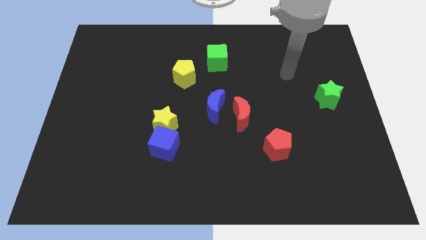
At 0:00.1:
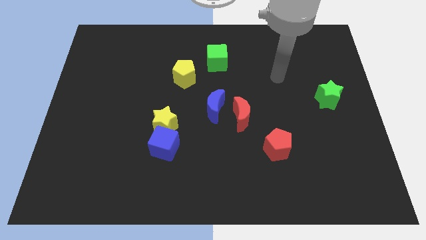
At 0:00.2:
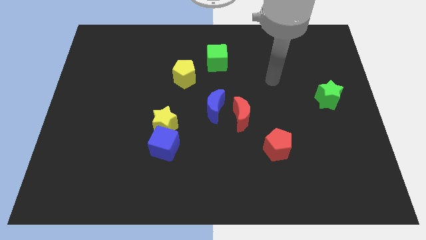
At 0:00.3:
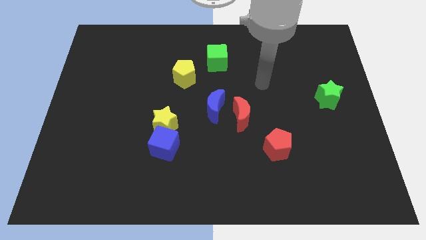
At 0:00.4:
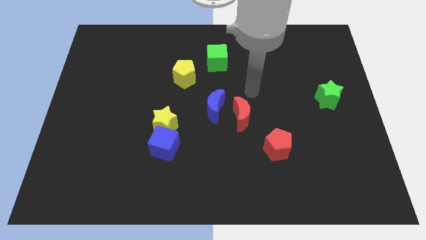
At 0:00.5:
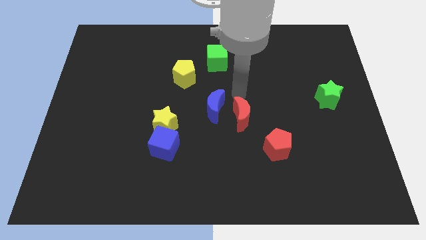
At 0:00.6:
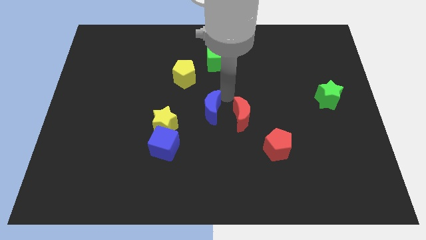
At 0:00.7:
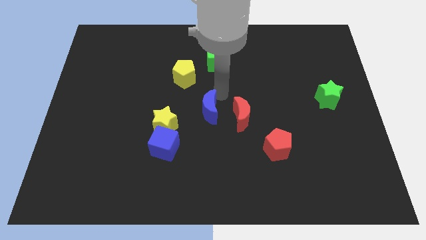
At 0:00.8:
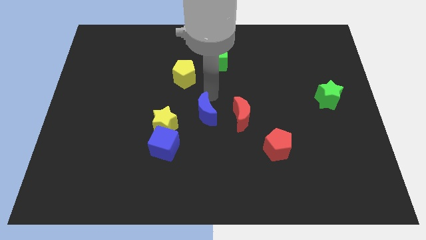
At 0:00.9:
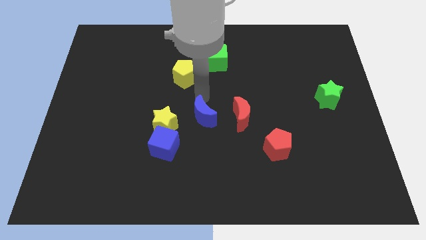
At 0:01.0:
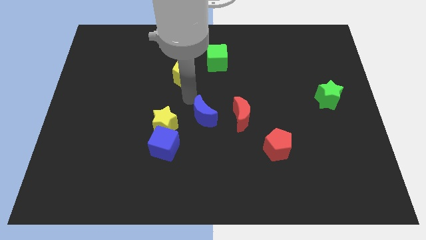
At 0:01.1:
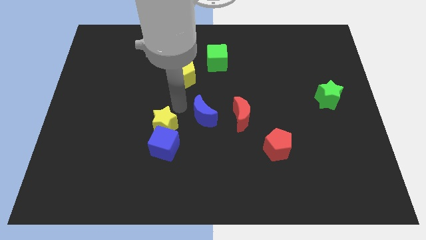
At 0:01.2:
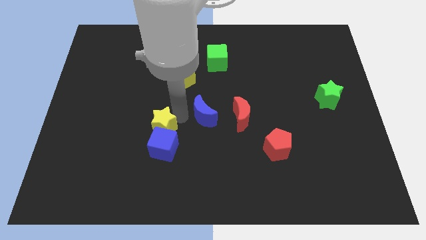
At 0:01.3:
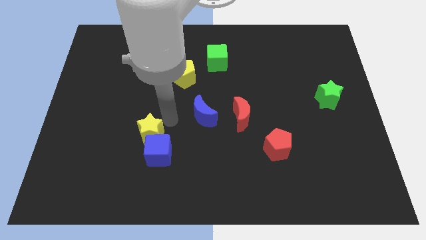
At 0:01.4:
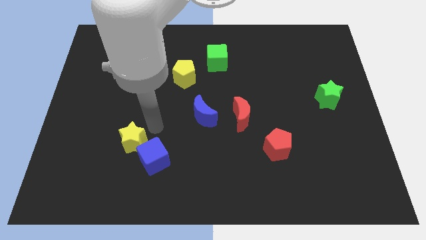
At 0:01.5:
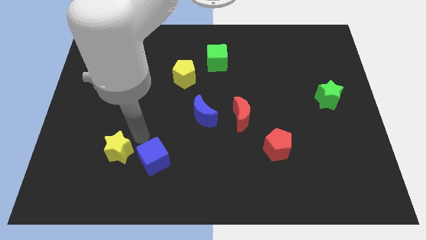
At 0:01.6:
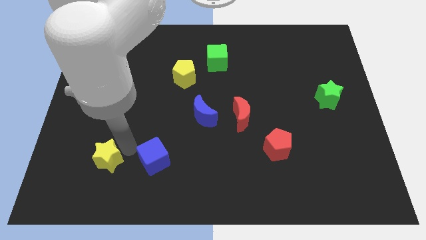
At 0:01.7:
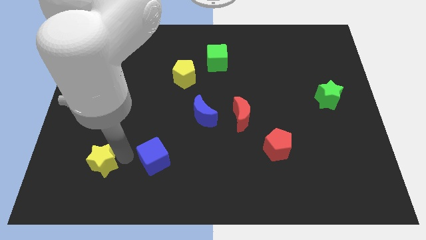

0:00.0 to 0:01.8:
move the blue cube away from the yellow star

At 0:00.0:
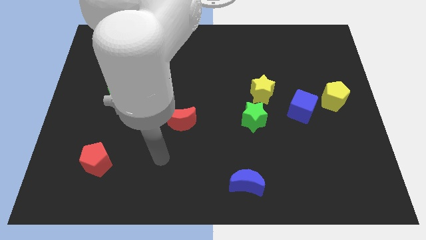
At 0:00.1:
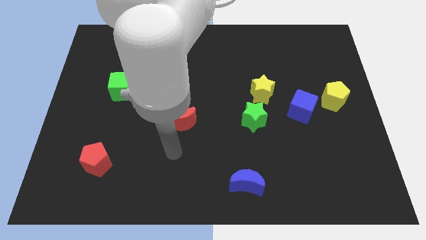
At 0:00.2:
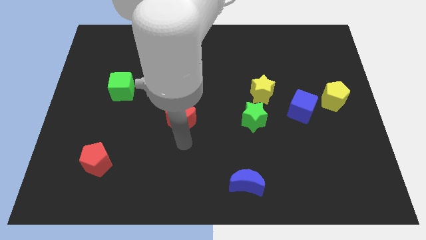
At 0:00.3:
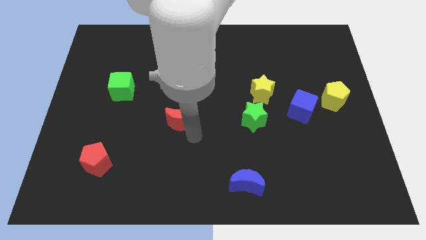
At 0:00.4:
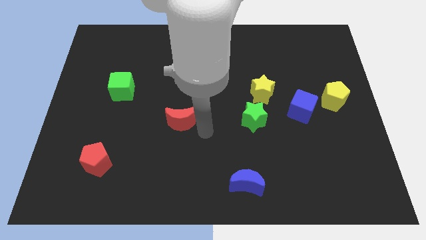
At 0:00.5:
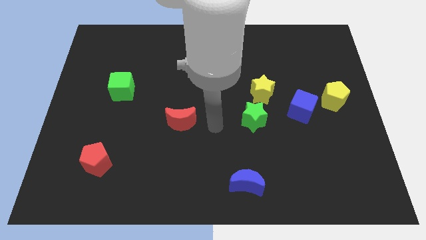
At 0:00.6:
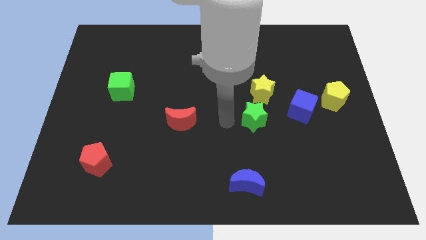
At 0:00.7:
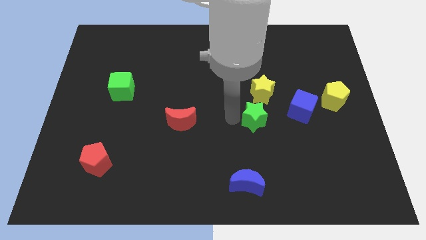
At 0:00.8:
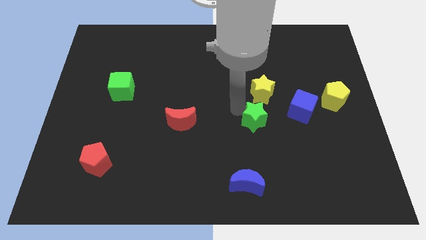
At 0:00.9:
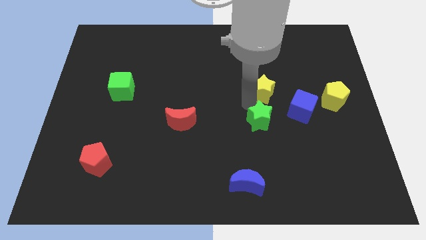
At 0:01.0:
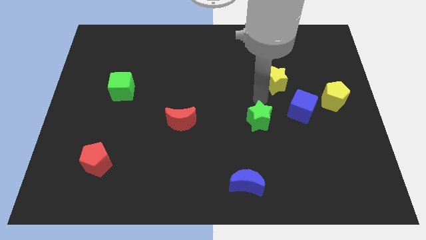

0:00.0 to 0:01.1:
pull the green star apart from the yellow star

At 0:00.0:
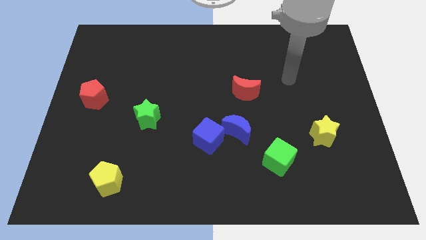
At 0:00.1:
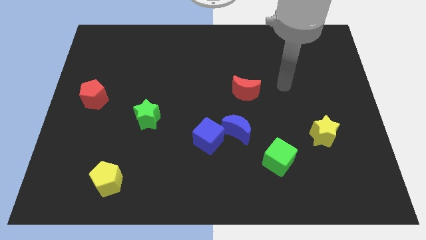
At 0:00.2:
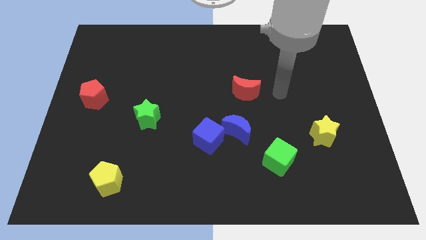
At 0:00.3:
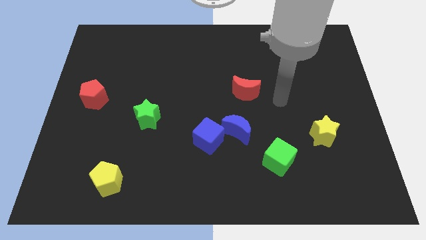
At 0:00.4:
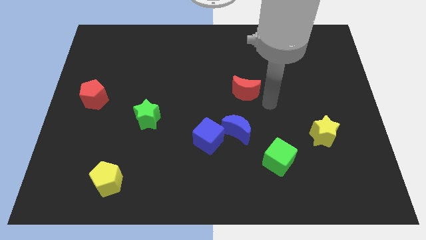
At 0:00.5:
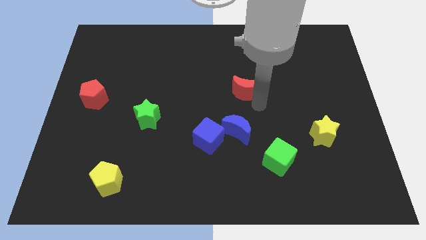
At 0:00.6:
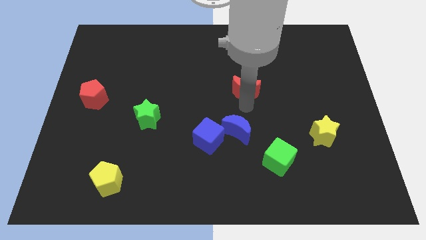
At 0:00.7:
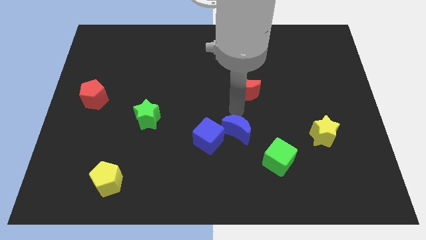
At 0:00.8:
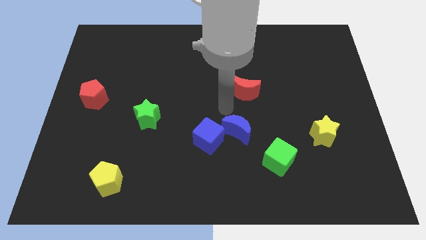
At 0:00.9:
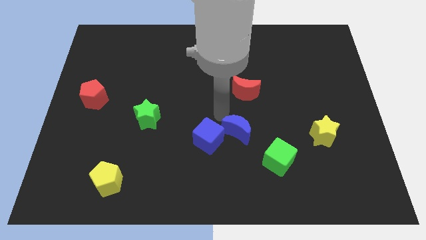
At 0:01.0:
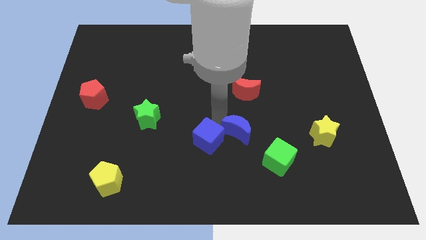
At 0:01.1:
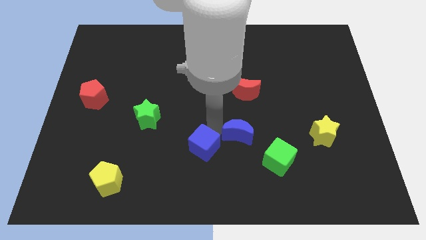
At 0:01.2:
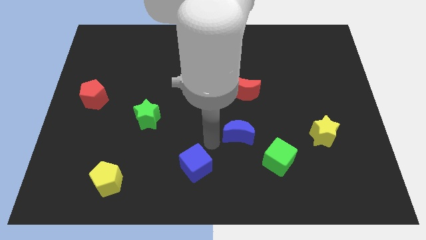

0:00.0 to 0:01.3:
separate the blue moon from the blue cube

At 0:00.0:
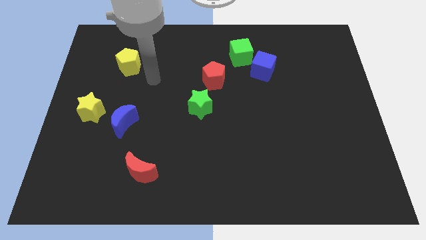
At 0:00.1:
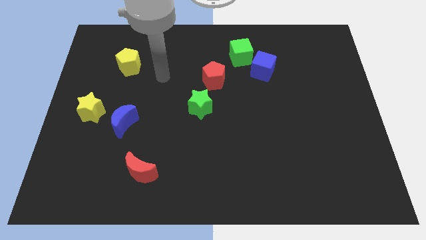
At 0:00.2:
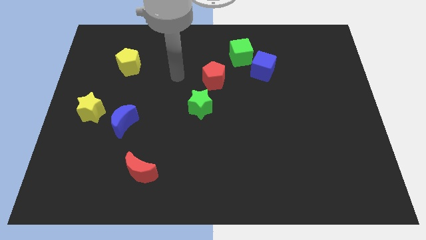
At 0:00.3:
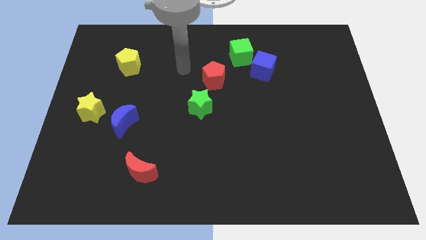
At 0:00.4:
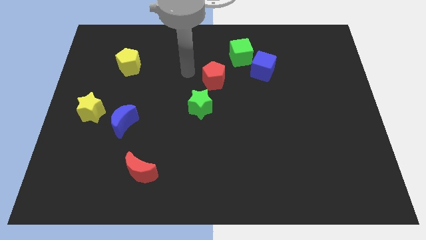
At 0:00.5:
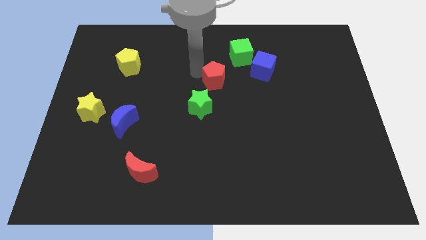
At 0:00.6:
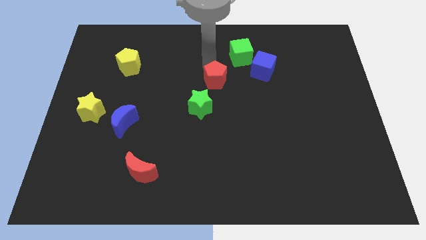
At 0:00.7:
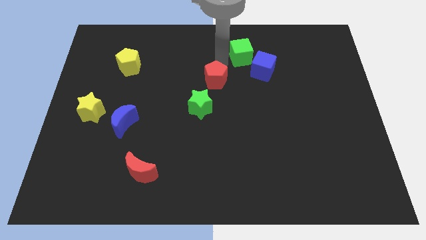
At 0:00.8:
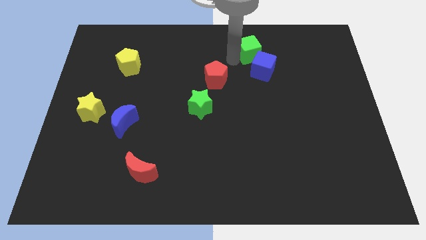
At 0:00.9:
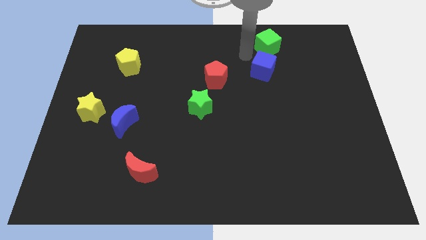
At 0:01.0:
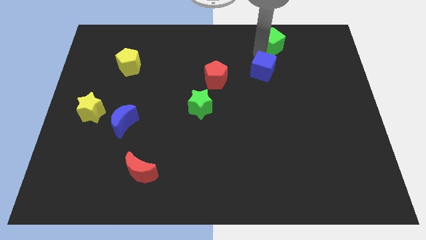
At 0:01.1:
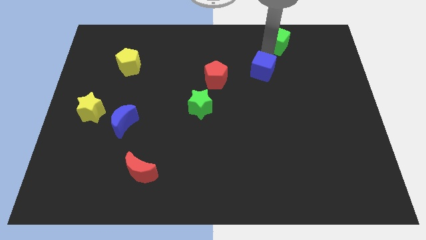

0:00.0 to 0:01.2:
separate the blue cube from the green cube

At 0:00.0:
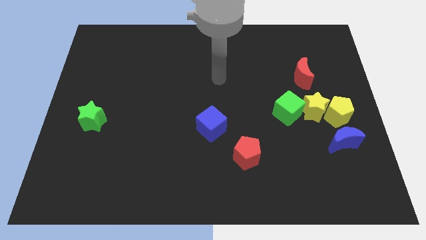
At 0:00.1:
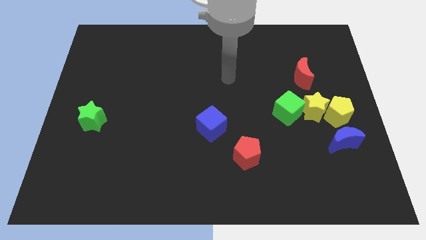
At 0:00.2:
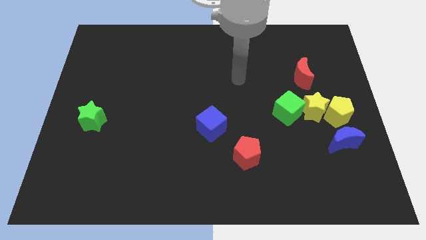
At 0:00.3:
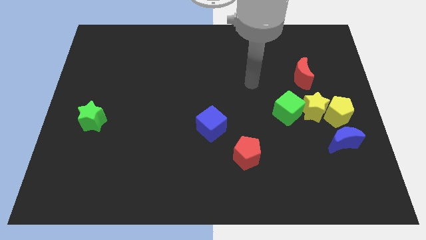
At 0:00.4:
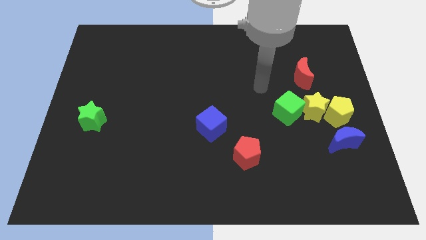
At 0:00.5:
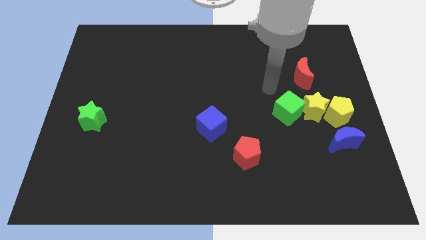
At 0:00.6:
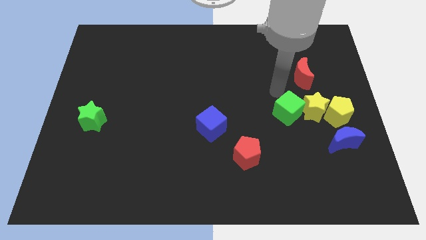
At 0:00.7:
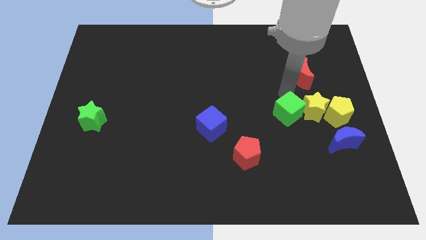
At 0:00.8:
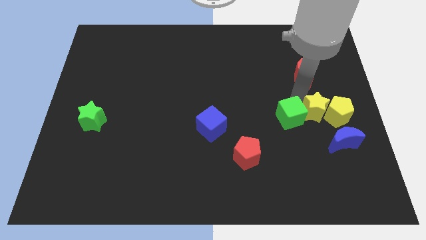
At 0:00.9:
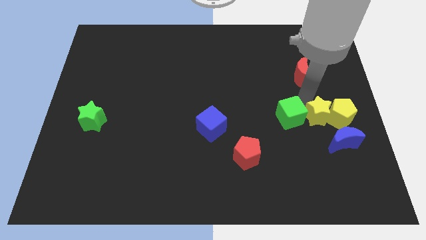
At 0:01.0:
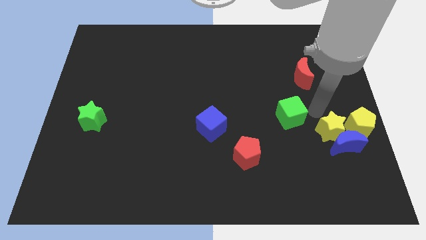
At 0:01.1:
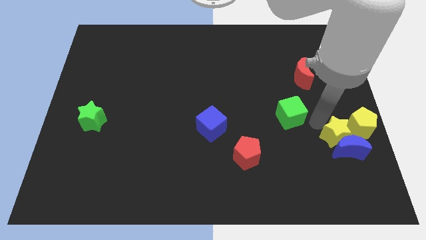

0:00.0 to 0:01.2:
move the green cube away from the yellow star

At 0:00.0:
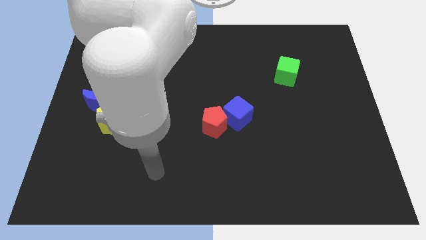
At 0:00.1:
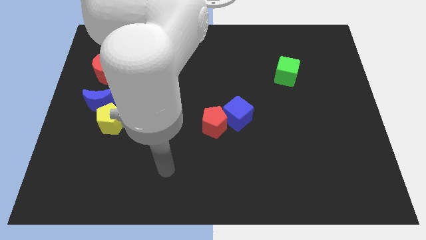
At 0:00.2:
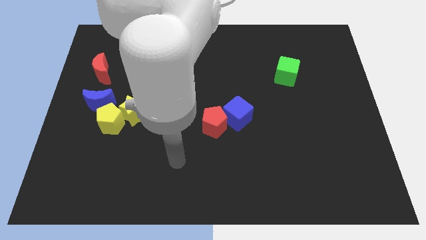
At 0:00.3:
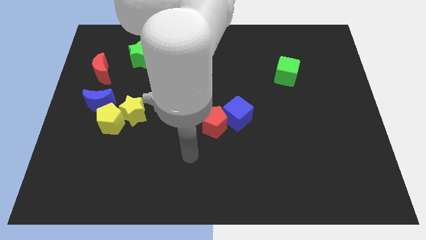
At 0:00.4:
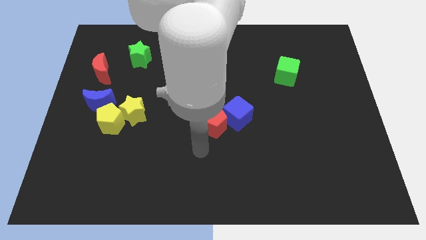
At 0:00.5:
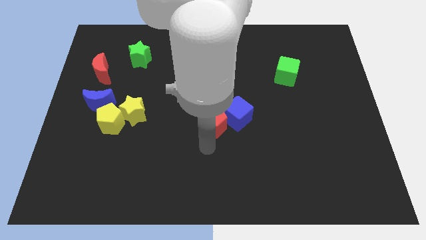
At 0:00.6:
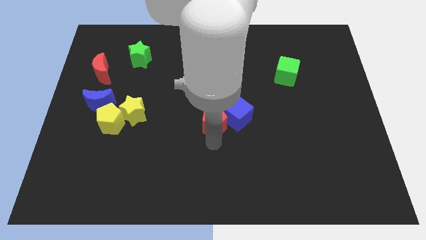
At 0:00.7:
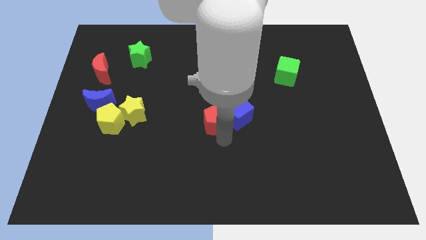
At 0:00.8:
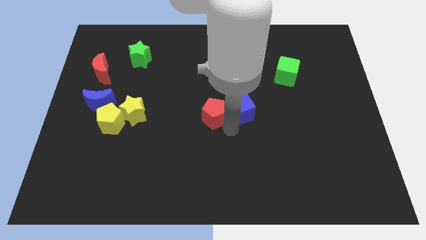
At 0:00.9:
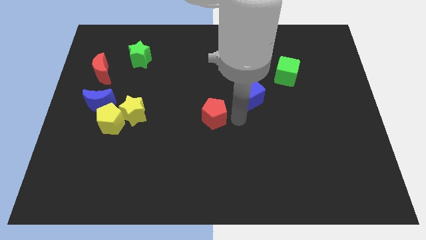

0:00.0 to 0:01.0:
separate the red pentagon from the blue cube

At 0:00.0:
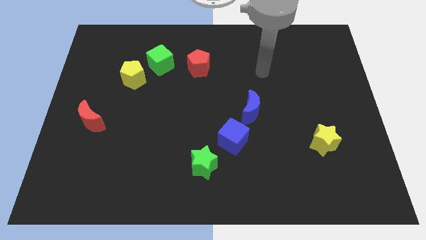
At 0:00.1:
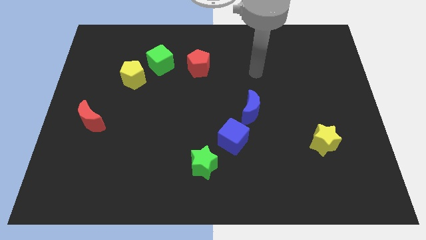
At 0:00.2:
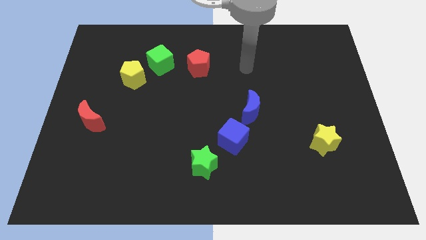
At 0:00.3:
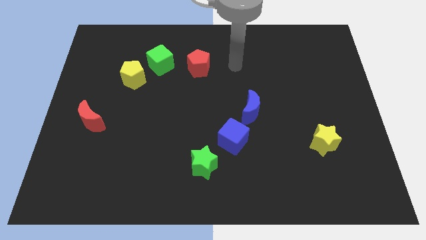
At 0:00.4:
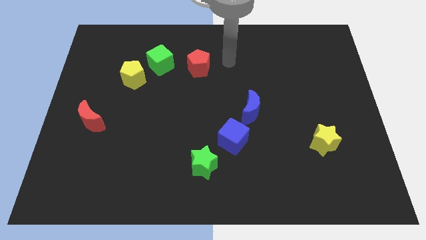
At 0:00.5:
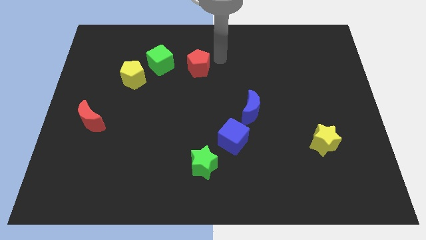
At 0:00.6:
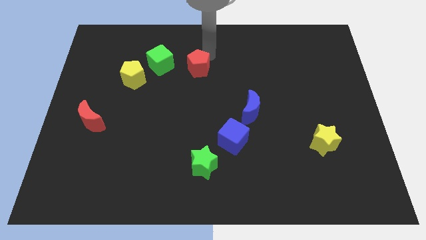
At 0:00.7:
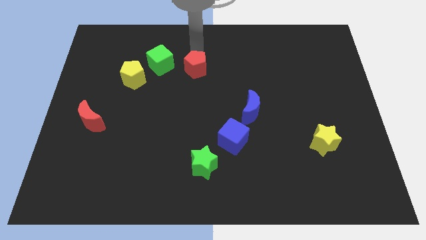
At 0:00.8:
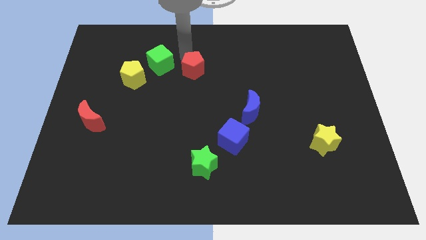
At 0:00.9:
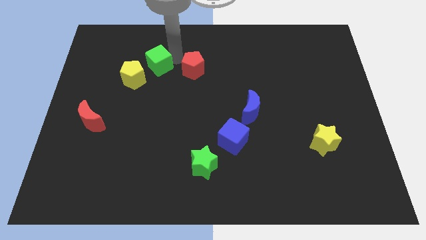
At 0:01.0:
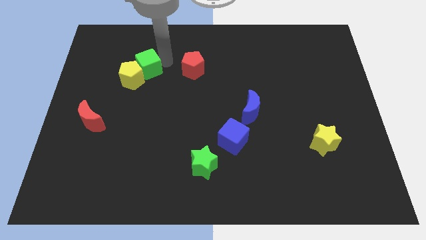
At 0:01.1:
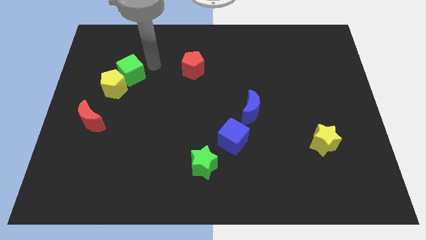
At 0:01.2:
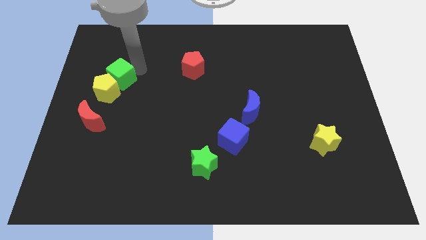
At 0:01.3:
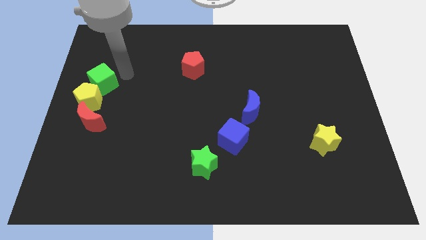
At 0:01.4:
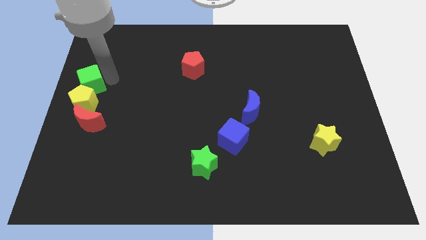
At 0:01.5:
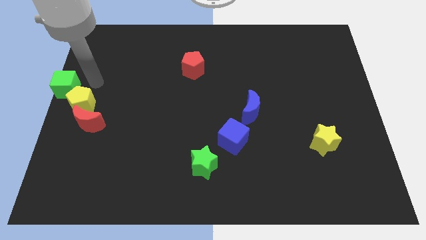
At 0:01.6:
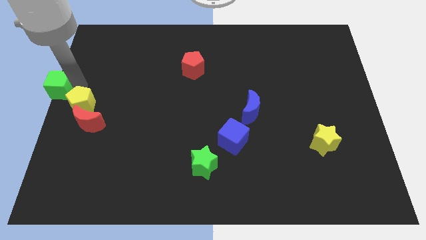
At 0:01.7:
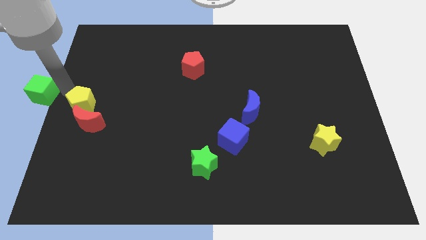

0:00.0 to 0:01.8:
separate the yellow pentagon from the green cube
